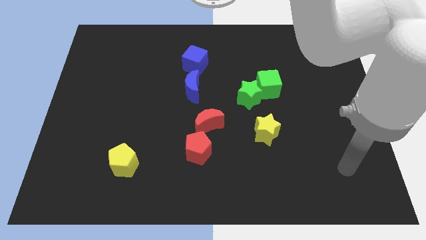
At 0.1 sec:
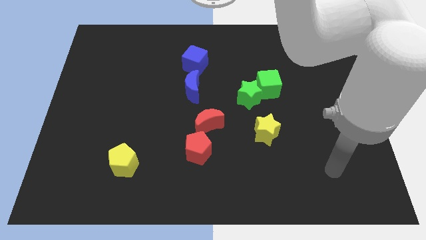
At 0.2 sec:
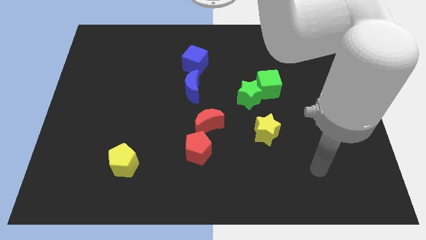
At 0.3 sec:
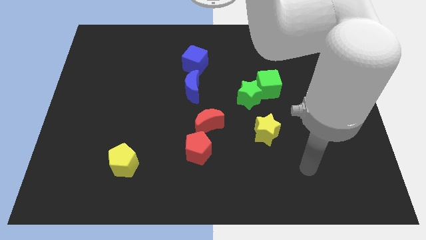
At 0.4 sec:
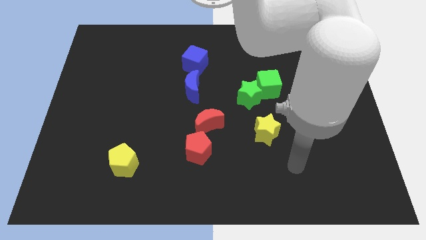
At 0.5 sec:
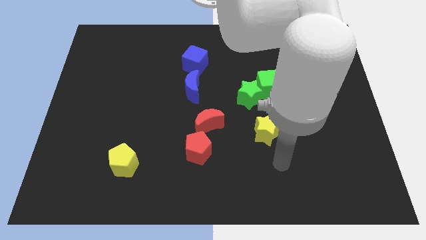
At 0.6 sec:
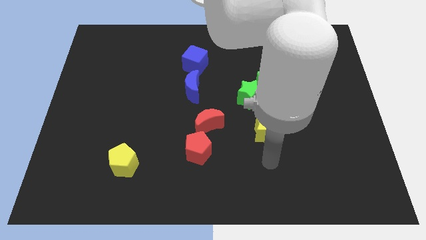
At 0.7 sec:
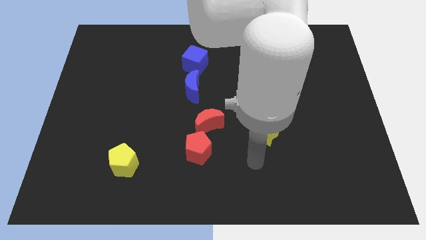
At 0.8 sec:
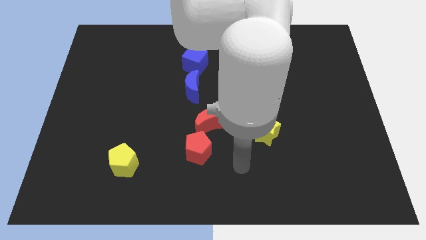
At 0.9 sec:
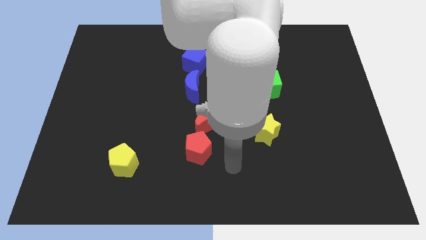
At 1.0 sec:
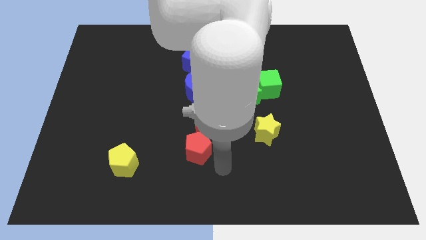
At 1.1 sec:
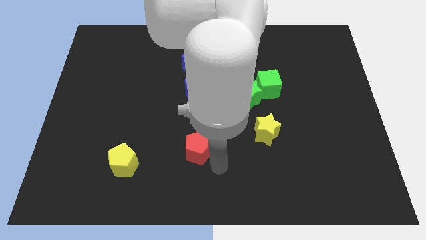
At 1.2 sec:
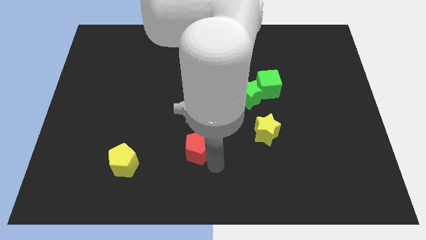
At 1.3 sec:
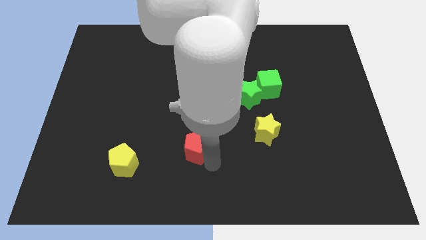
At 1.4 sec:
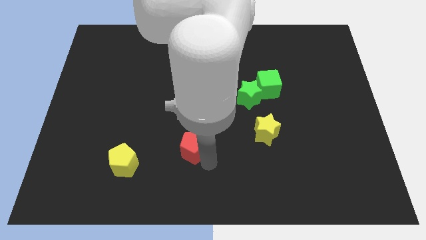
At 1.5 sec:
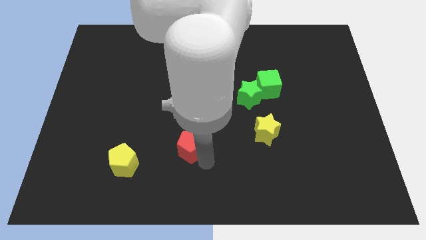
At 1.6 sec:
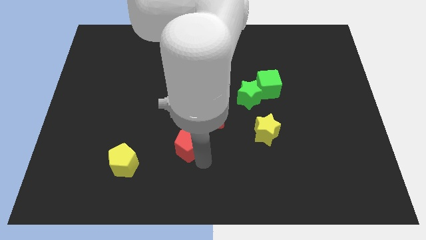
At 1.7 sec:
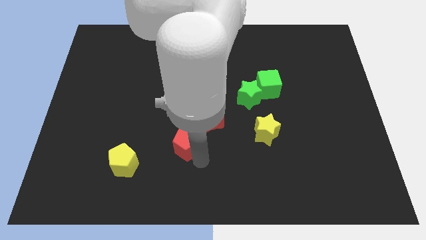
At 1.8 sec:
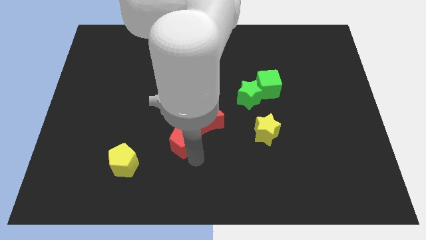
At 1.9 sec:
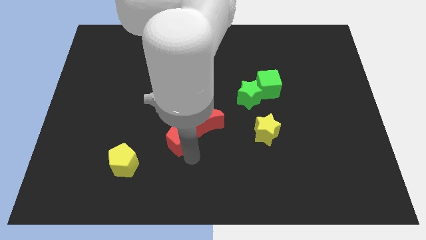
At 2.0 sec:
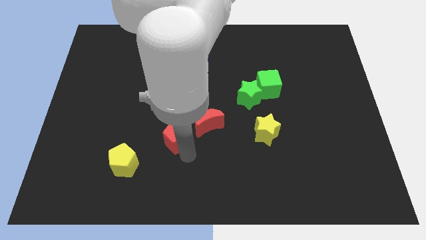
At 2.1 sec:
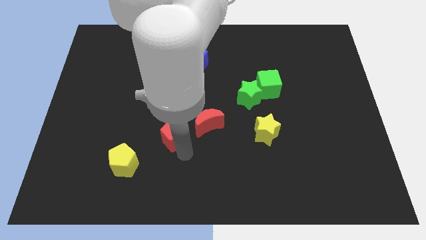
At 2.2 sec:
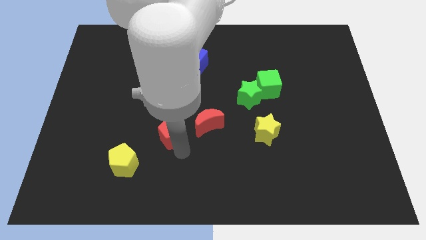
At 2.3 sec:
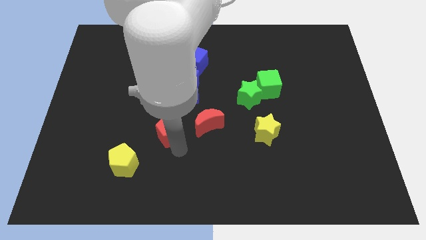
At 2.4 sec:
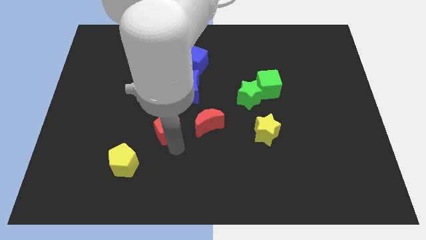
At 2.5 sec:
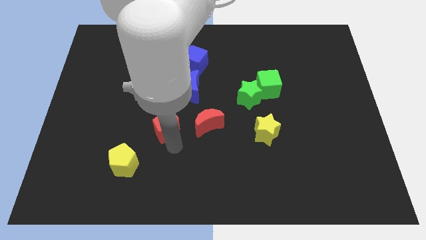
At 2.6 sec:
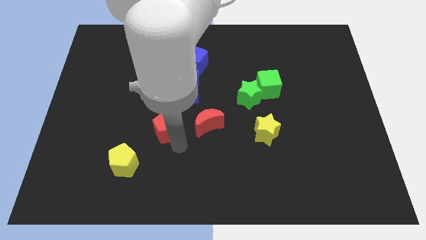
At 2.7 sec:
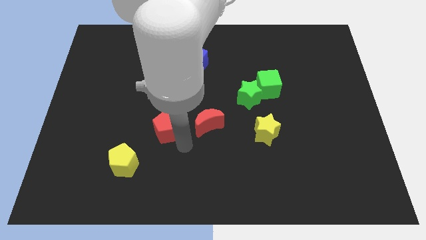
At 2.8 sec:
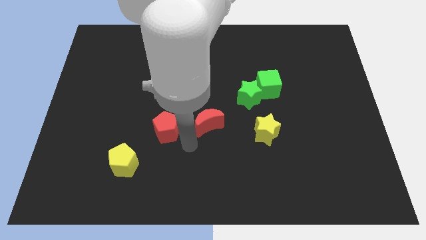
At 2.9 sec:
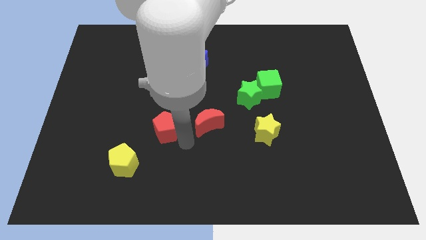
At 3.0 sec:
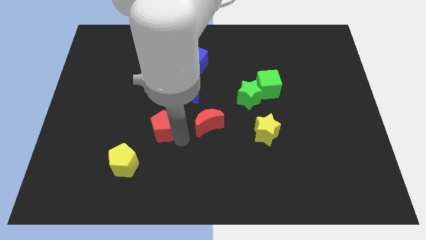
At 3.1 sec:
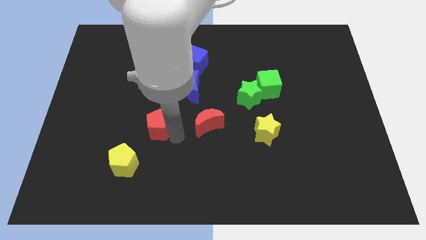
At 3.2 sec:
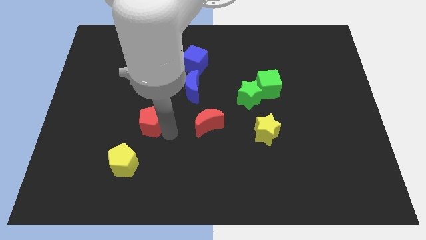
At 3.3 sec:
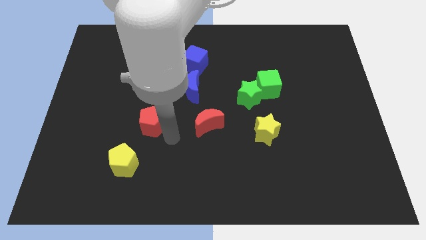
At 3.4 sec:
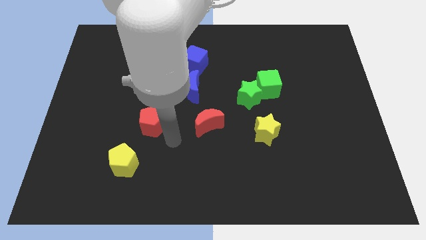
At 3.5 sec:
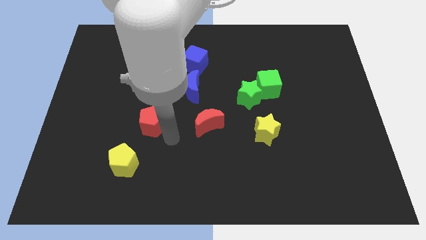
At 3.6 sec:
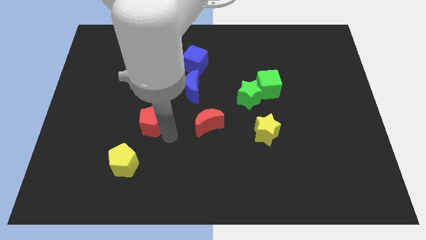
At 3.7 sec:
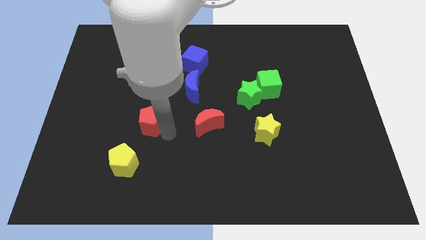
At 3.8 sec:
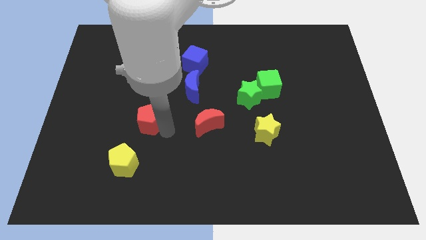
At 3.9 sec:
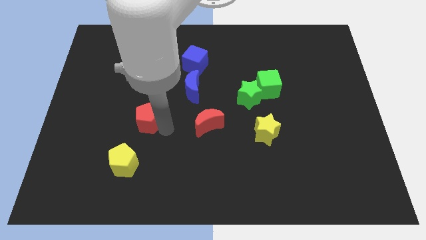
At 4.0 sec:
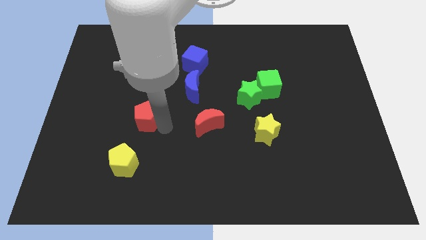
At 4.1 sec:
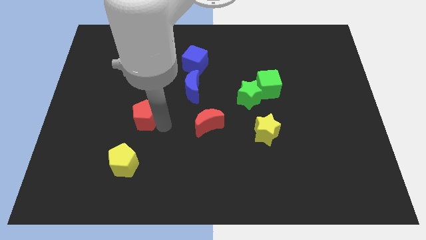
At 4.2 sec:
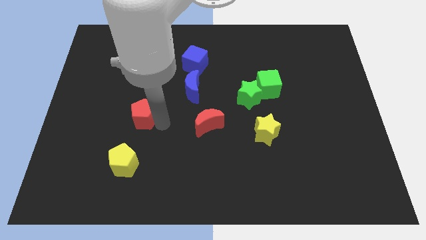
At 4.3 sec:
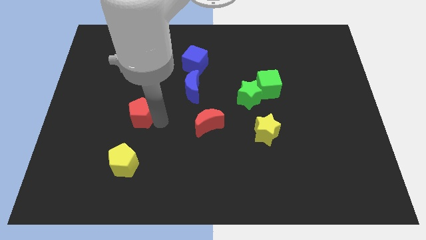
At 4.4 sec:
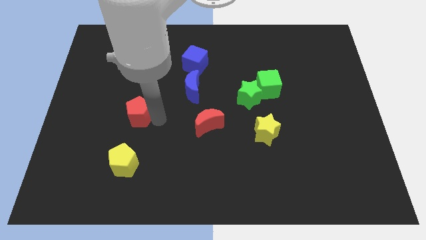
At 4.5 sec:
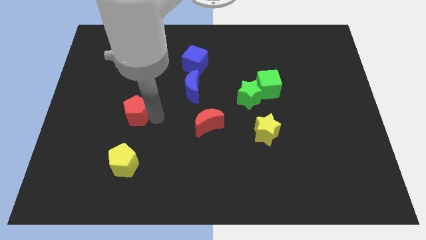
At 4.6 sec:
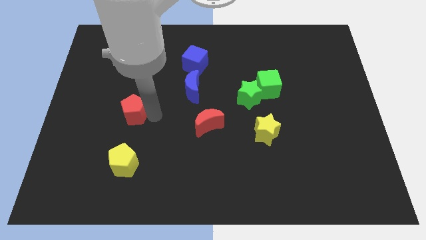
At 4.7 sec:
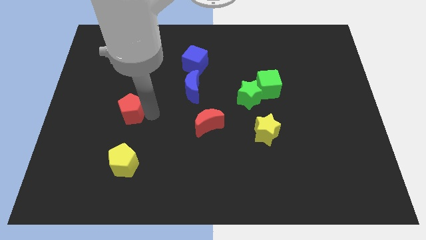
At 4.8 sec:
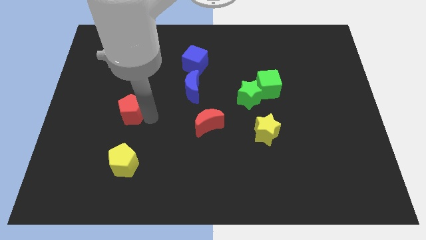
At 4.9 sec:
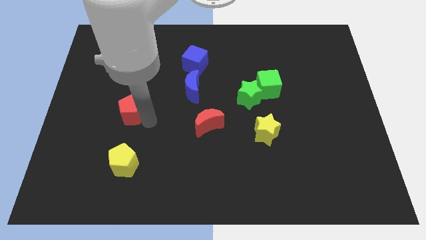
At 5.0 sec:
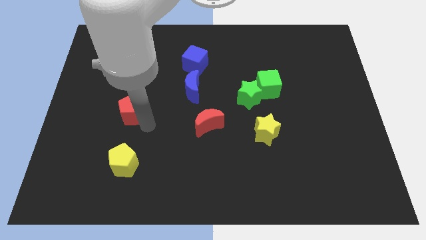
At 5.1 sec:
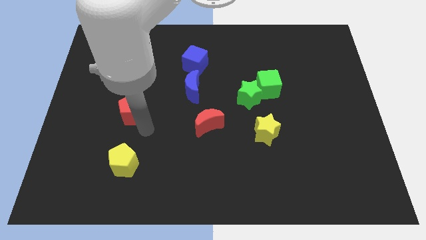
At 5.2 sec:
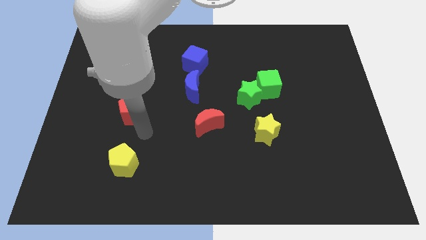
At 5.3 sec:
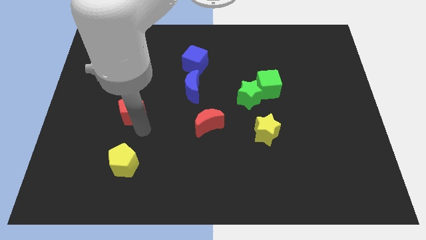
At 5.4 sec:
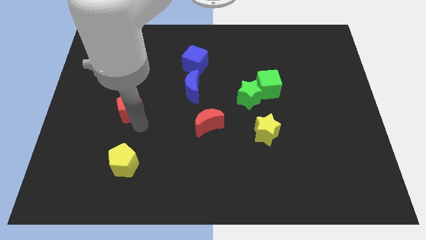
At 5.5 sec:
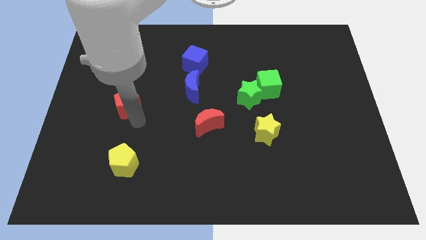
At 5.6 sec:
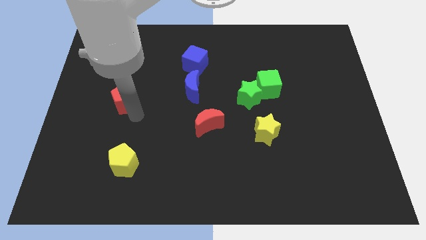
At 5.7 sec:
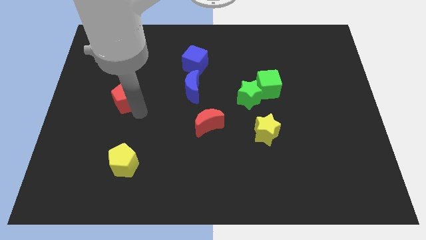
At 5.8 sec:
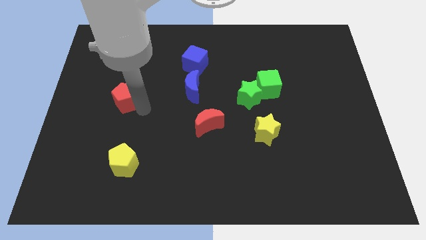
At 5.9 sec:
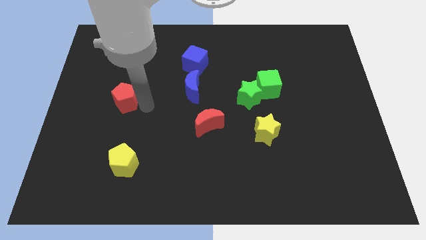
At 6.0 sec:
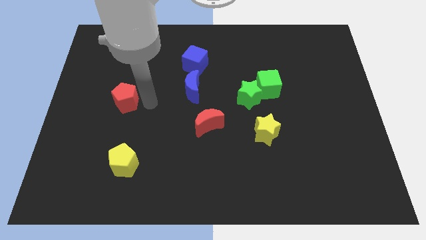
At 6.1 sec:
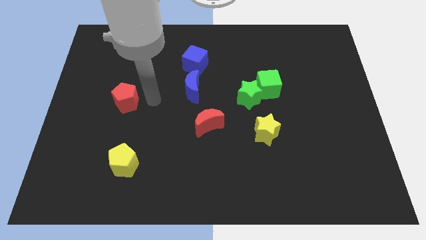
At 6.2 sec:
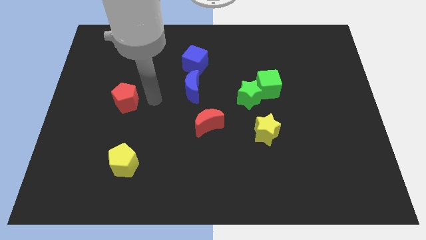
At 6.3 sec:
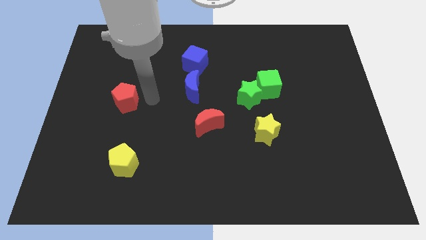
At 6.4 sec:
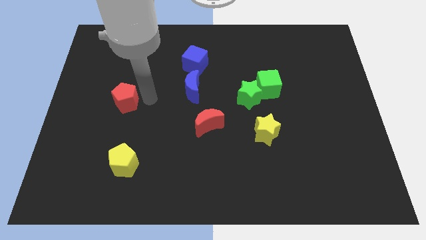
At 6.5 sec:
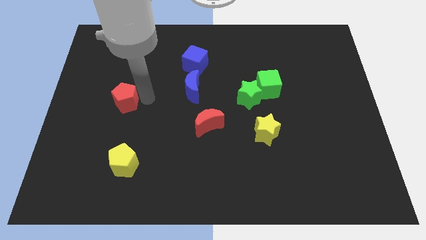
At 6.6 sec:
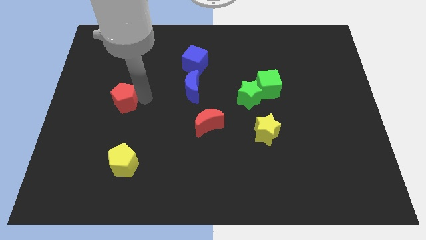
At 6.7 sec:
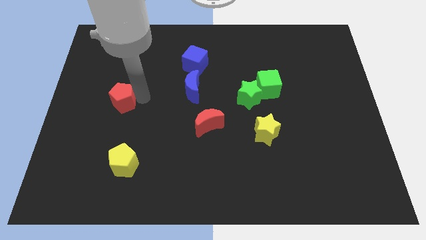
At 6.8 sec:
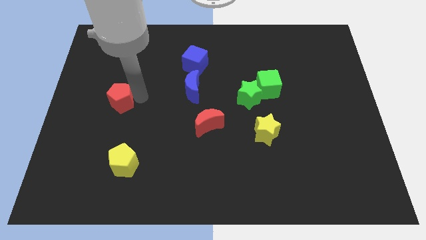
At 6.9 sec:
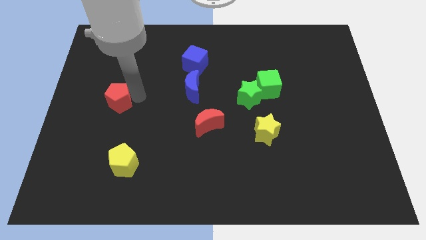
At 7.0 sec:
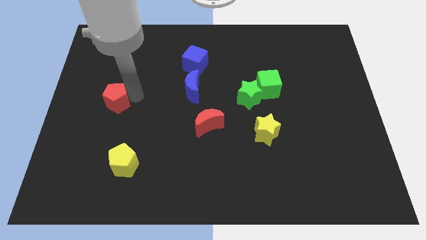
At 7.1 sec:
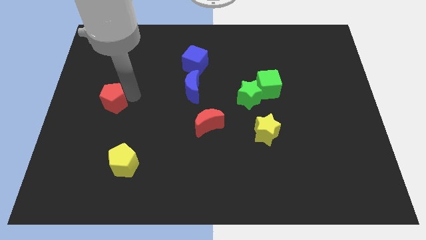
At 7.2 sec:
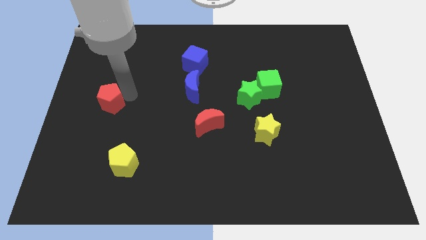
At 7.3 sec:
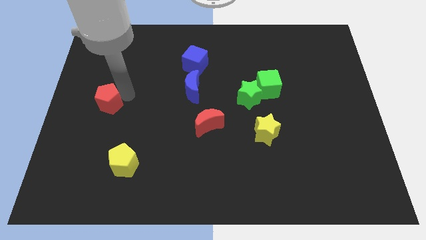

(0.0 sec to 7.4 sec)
slide the red pentagon to the left side of the board
